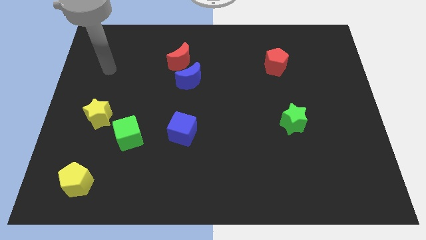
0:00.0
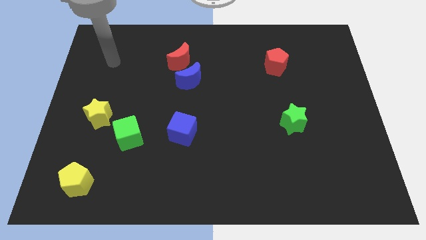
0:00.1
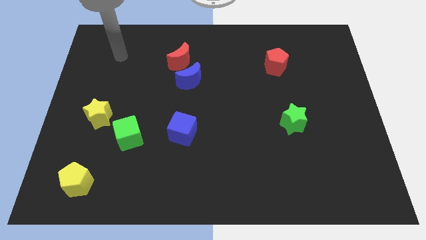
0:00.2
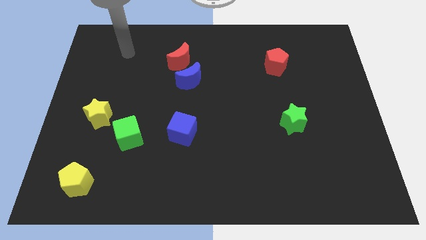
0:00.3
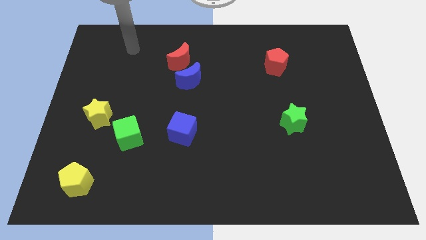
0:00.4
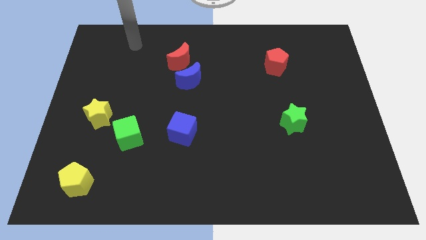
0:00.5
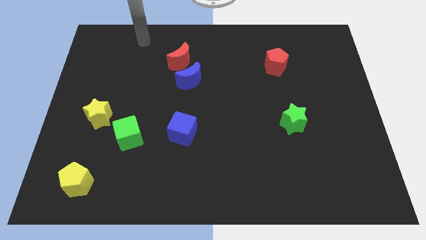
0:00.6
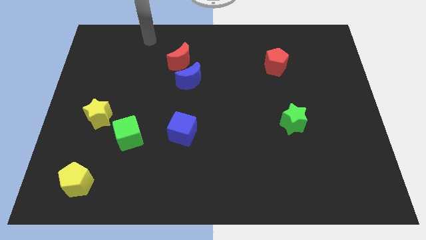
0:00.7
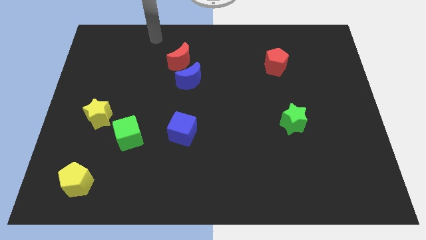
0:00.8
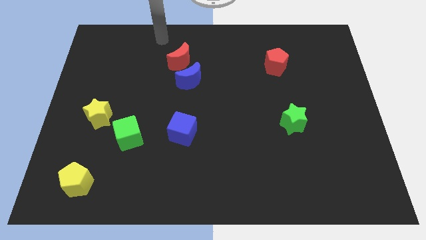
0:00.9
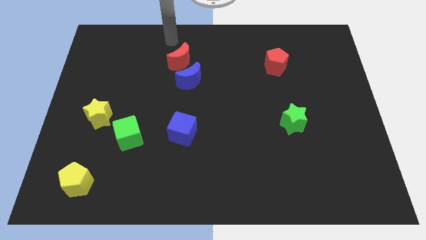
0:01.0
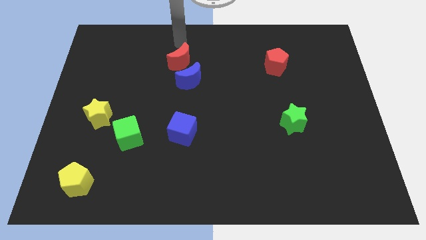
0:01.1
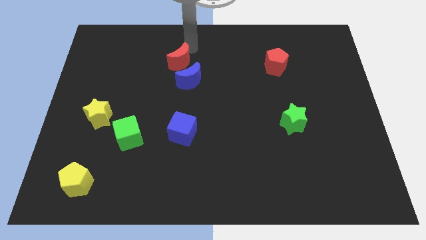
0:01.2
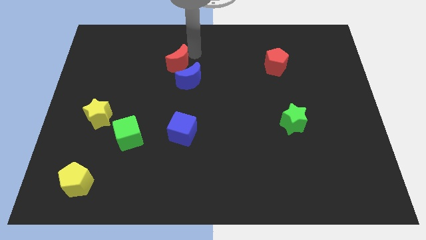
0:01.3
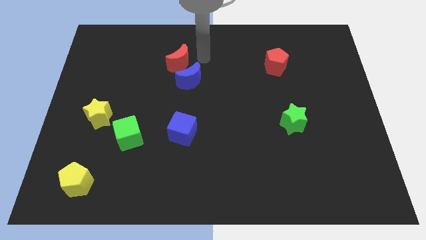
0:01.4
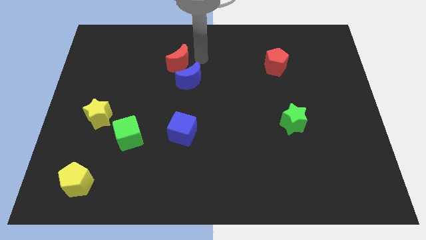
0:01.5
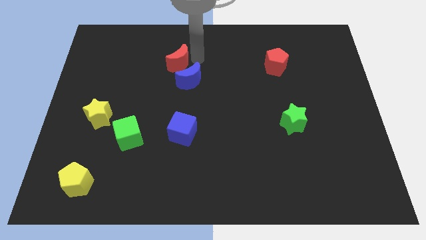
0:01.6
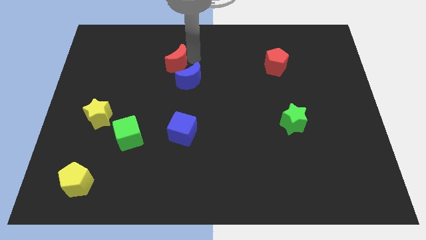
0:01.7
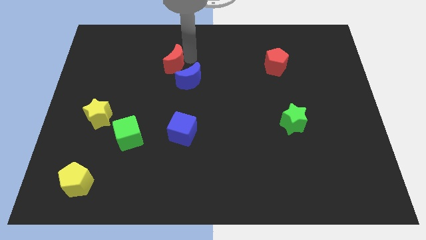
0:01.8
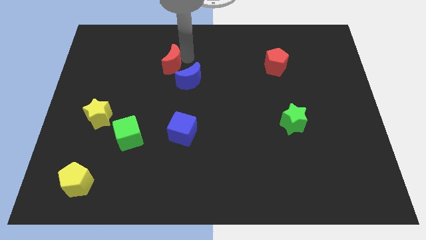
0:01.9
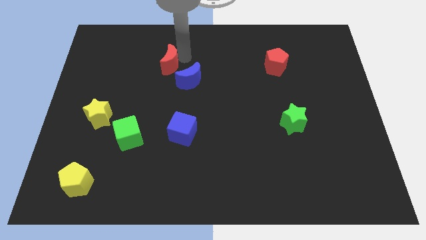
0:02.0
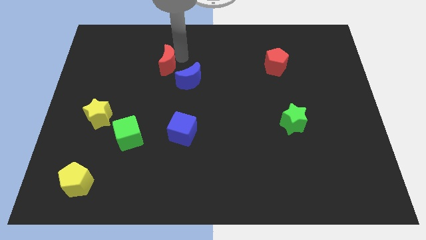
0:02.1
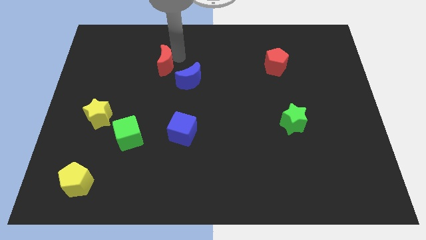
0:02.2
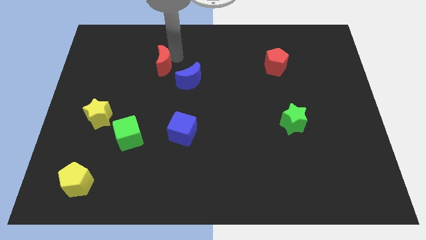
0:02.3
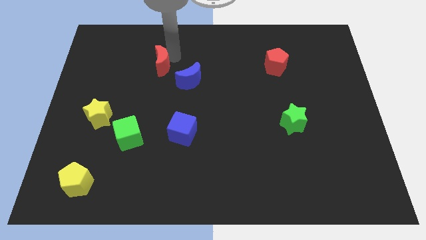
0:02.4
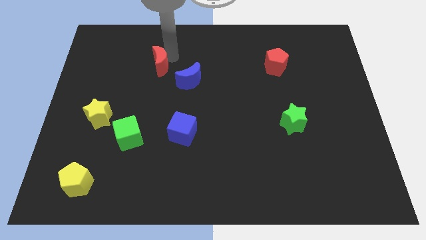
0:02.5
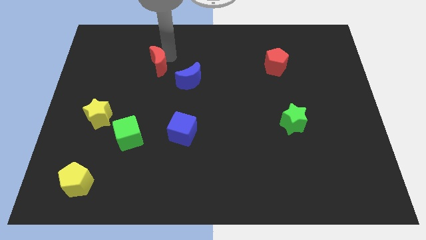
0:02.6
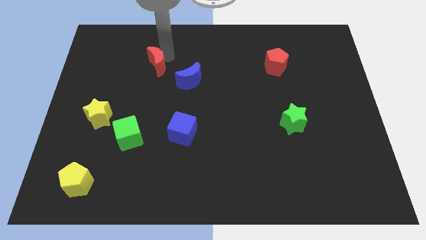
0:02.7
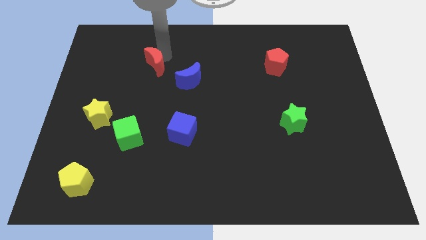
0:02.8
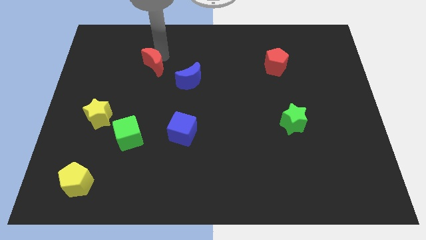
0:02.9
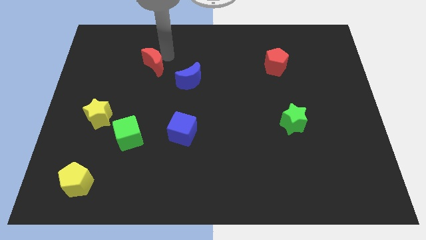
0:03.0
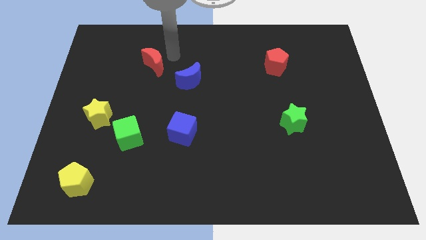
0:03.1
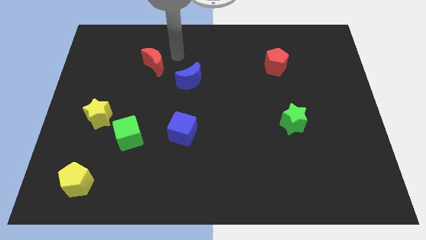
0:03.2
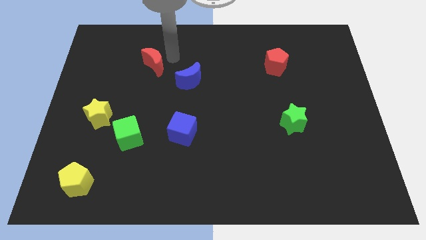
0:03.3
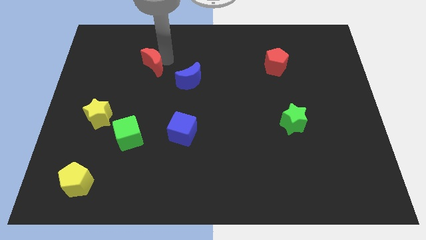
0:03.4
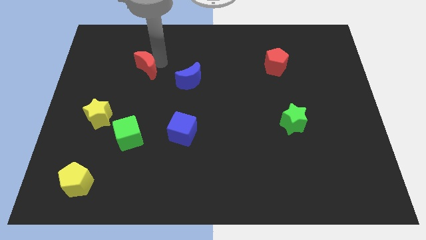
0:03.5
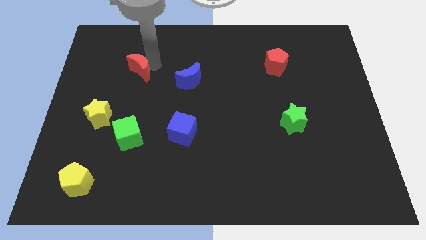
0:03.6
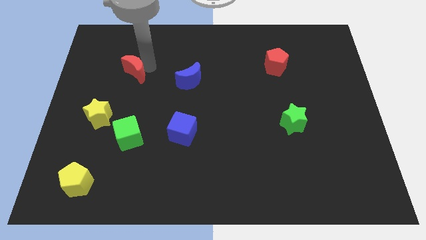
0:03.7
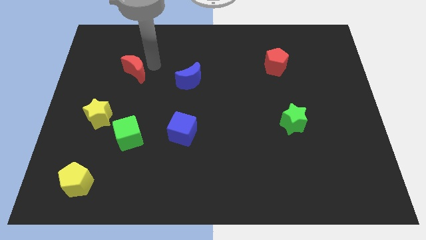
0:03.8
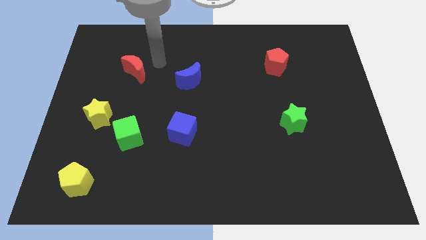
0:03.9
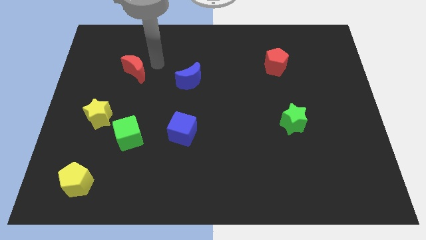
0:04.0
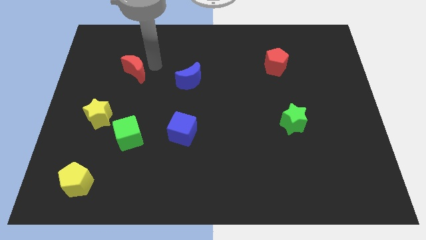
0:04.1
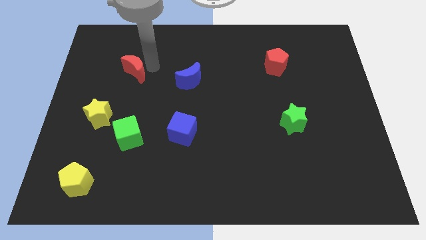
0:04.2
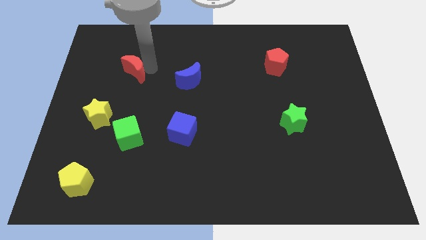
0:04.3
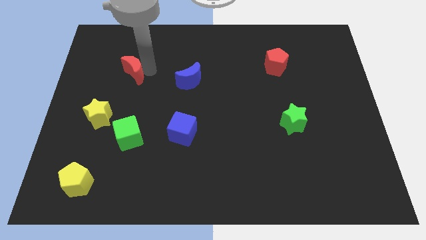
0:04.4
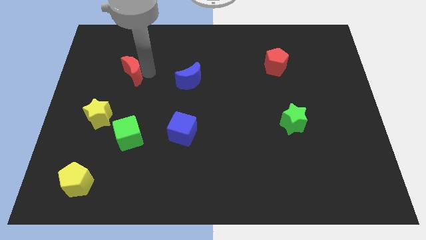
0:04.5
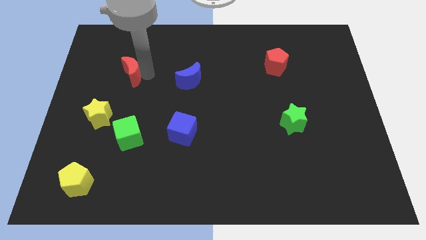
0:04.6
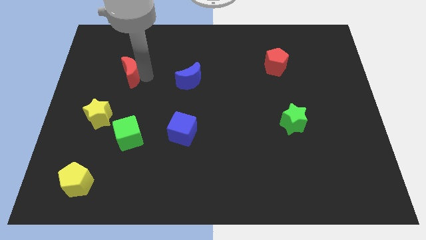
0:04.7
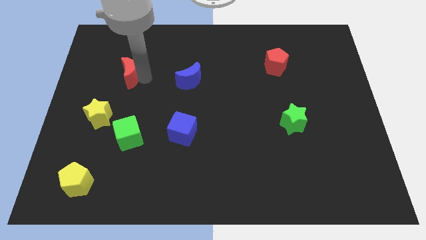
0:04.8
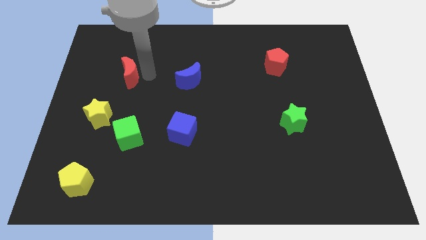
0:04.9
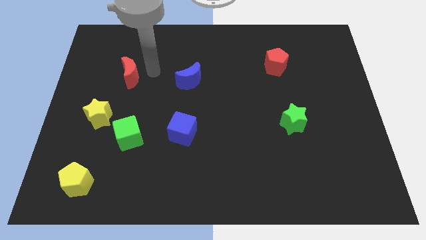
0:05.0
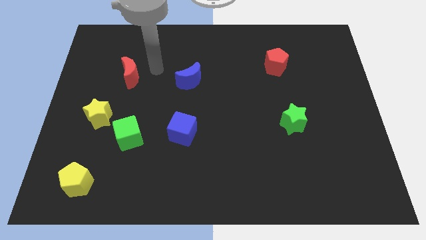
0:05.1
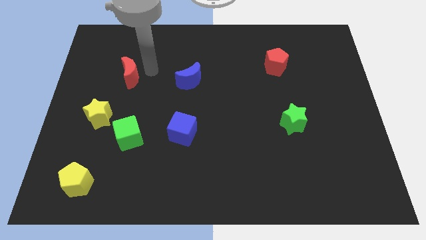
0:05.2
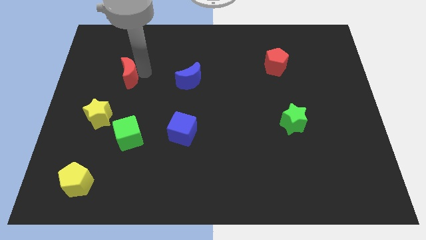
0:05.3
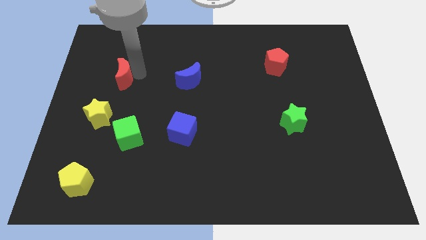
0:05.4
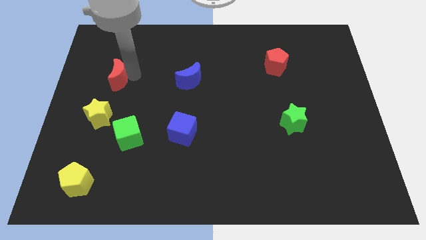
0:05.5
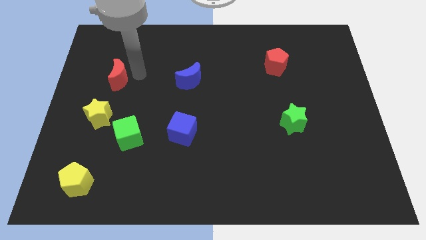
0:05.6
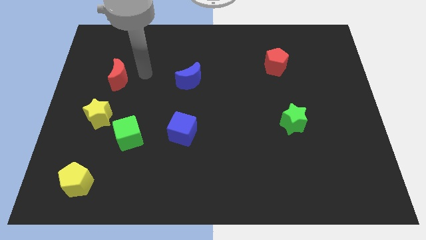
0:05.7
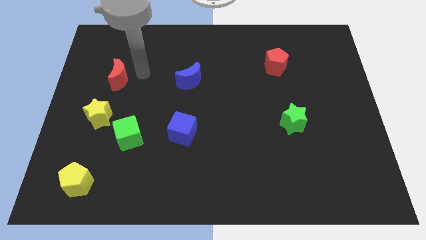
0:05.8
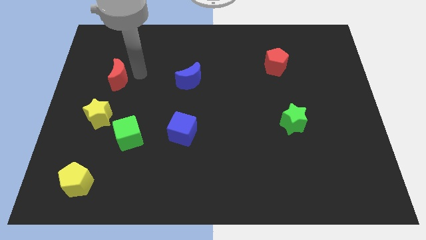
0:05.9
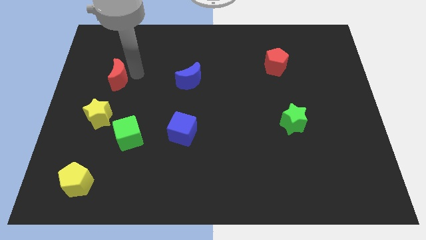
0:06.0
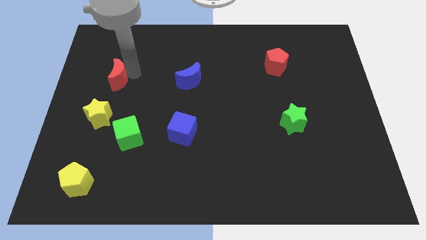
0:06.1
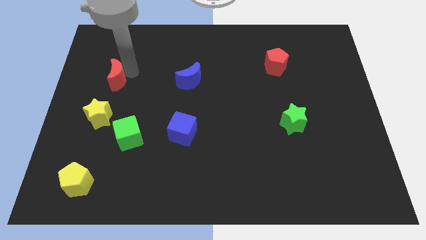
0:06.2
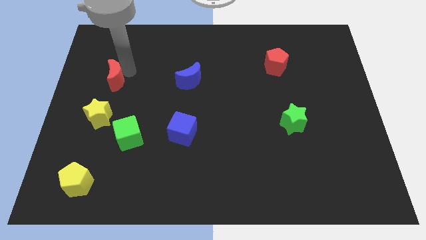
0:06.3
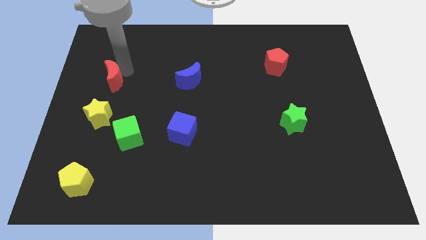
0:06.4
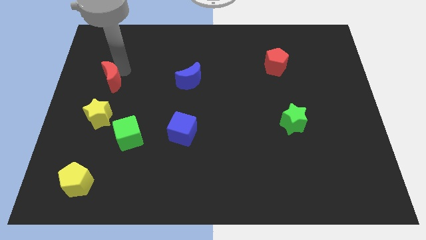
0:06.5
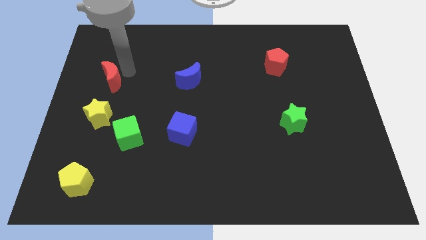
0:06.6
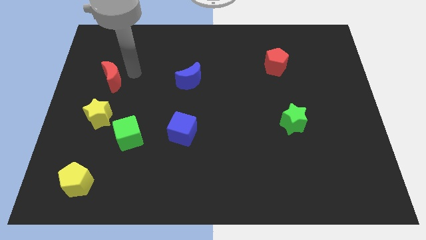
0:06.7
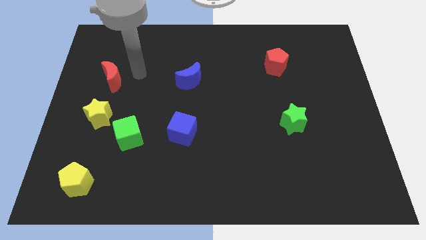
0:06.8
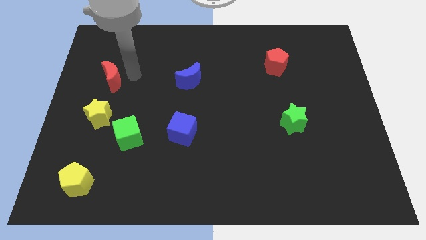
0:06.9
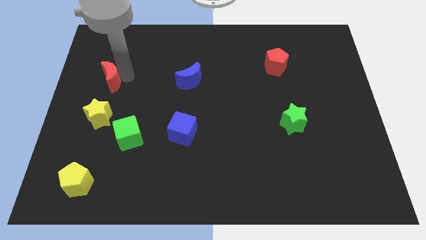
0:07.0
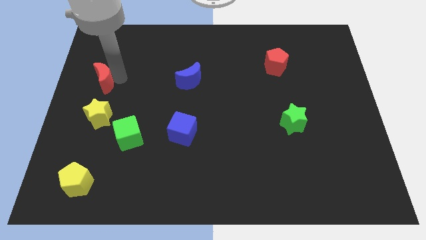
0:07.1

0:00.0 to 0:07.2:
move the red moon to the center left
